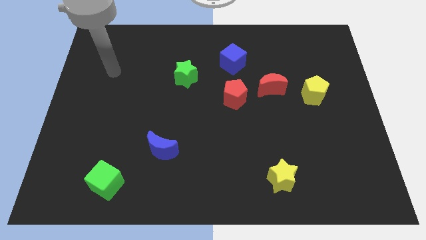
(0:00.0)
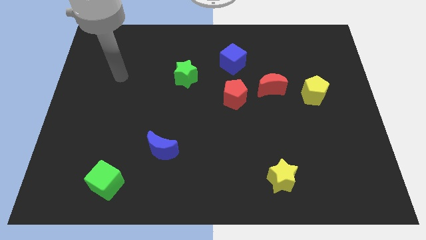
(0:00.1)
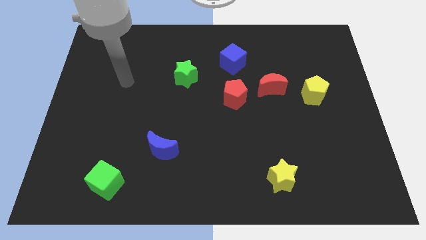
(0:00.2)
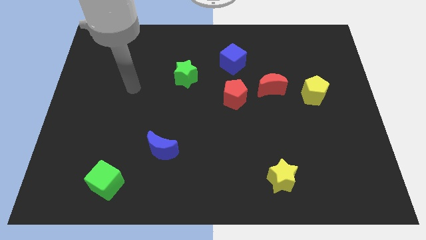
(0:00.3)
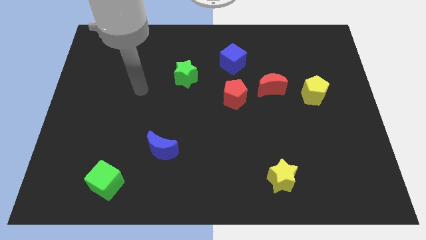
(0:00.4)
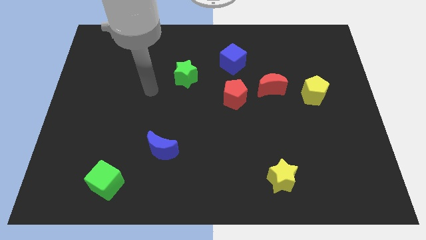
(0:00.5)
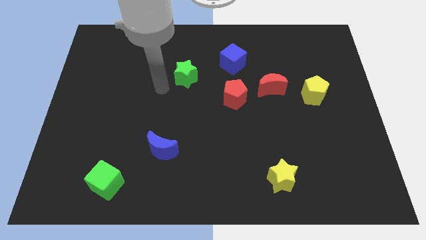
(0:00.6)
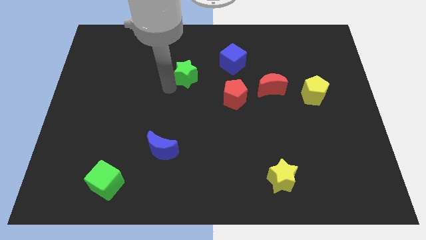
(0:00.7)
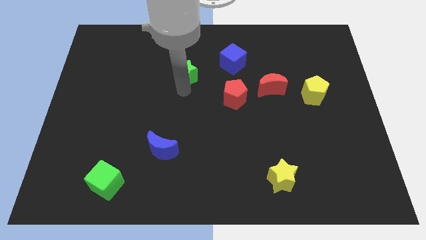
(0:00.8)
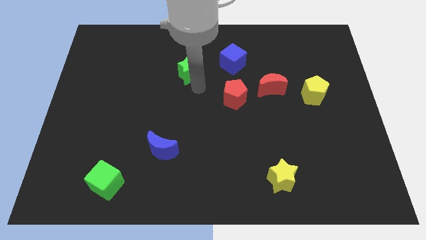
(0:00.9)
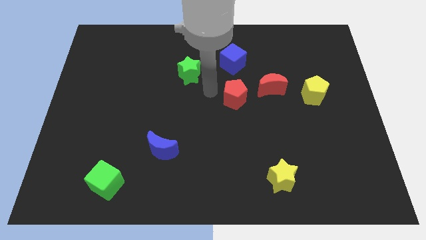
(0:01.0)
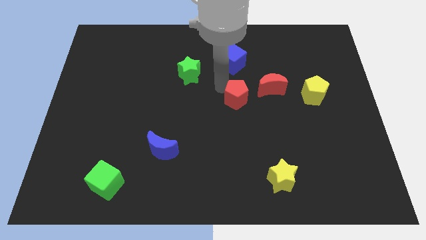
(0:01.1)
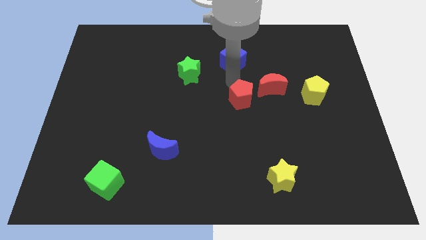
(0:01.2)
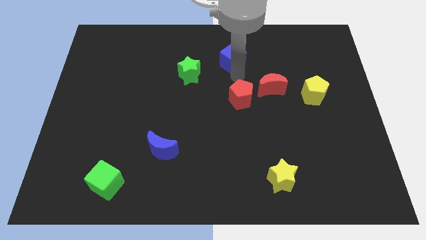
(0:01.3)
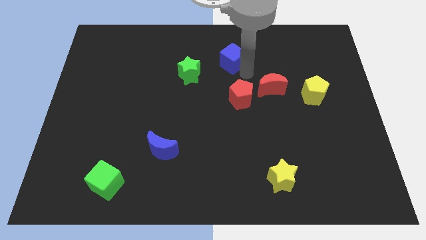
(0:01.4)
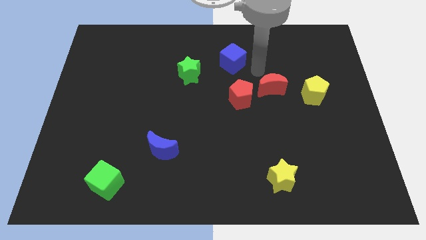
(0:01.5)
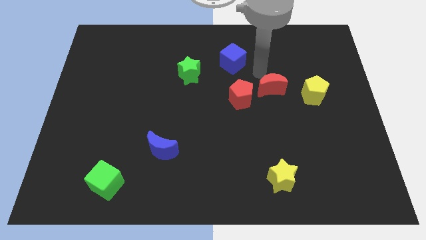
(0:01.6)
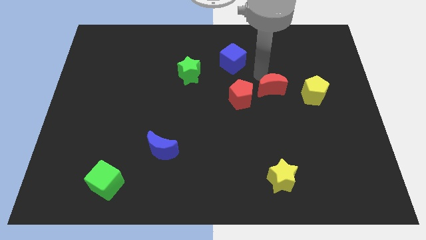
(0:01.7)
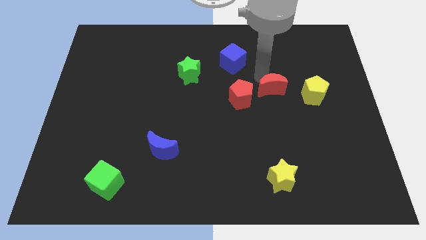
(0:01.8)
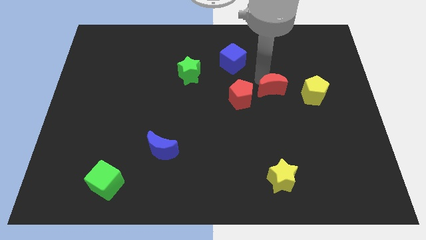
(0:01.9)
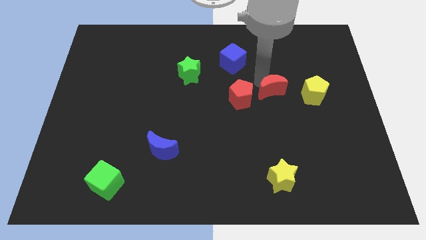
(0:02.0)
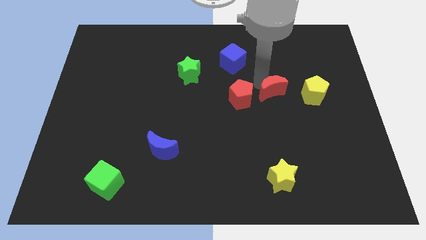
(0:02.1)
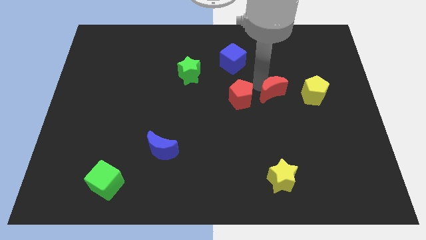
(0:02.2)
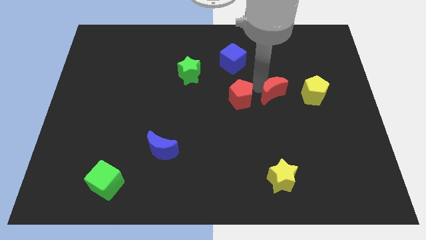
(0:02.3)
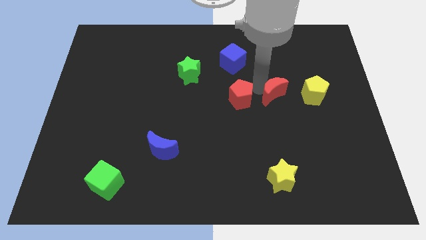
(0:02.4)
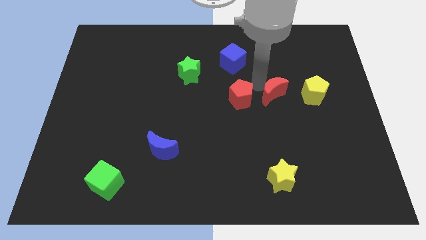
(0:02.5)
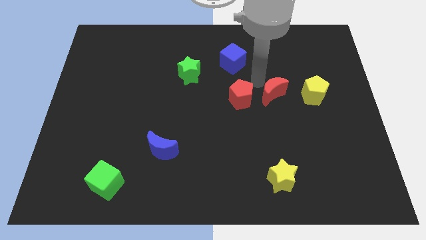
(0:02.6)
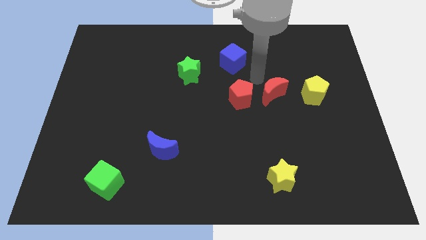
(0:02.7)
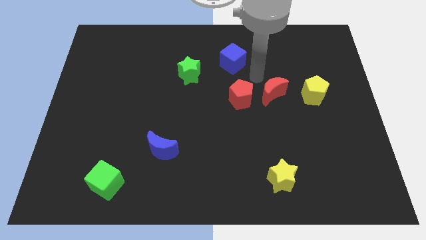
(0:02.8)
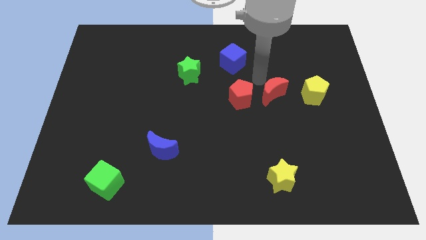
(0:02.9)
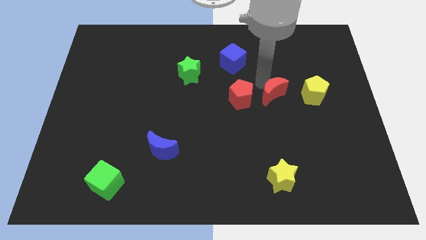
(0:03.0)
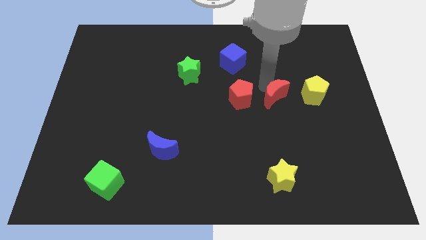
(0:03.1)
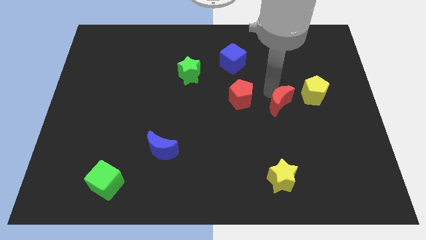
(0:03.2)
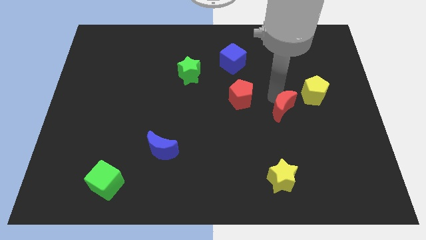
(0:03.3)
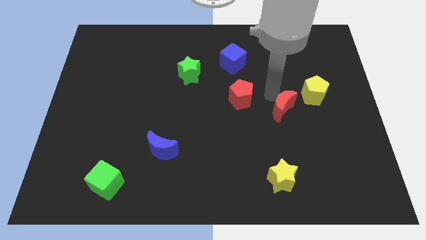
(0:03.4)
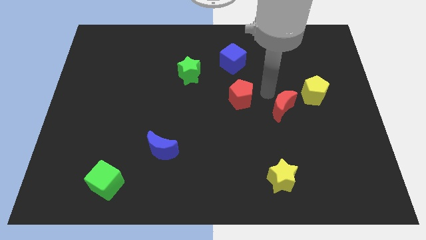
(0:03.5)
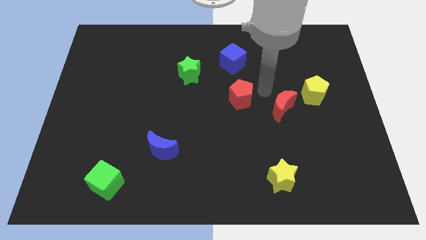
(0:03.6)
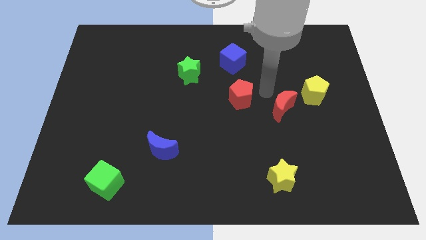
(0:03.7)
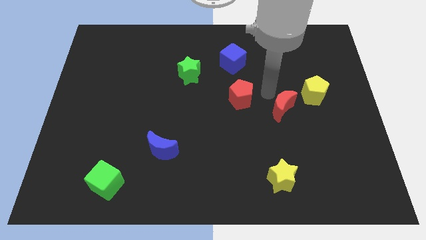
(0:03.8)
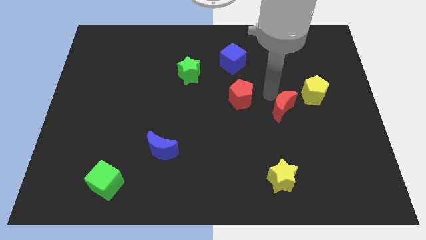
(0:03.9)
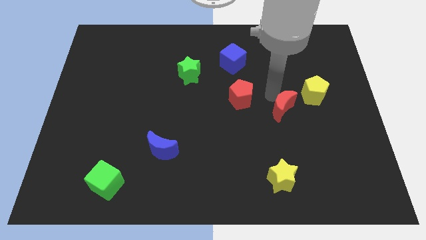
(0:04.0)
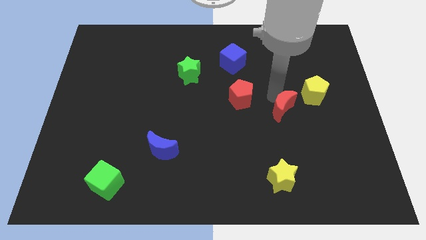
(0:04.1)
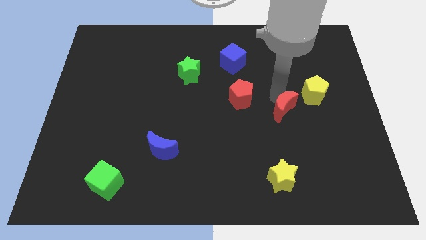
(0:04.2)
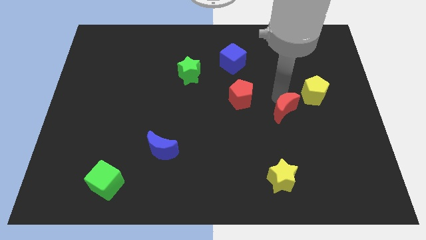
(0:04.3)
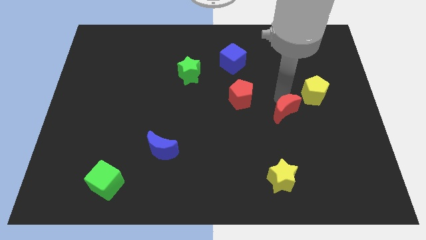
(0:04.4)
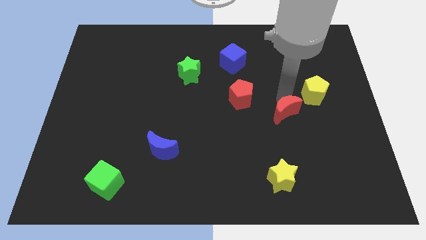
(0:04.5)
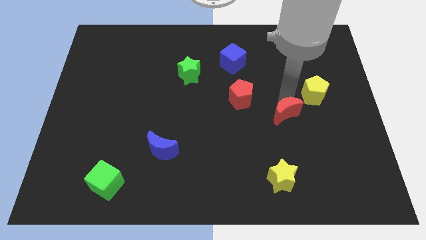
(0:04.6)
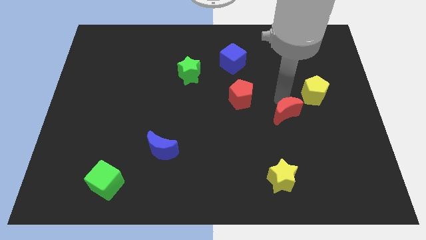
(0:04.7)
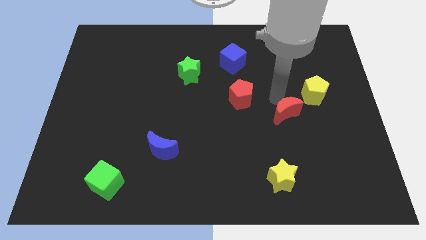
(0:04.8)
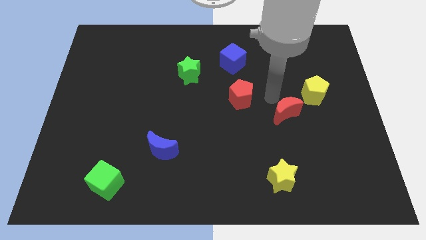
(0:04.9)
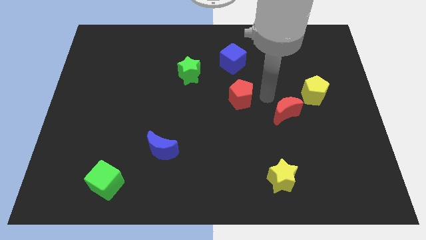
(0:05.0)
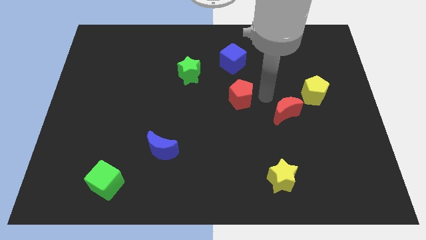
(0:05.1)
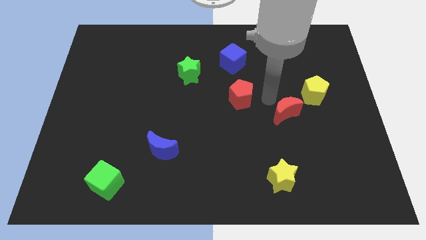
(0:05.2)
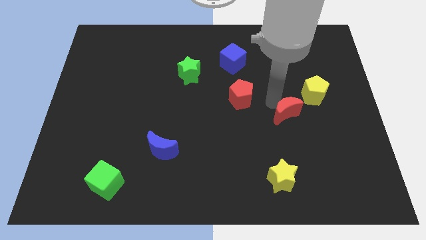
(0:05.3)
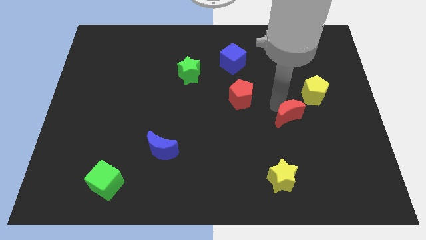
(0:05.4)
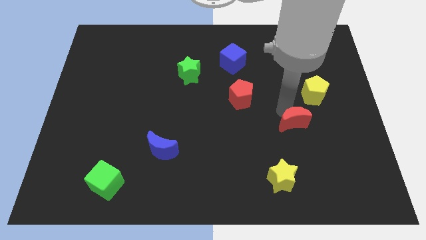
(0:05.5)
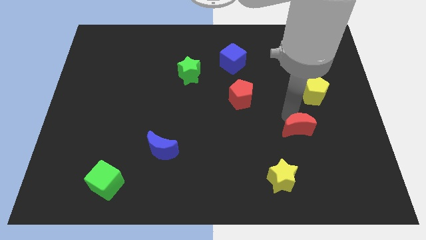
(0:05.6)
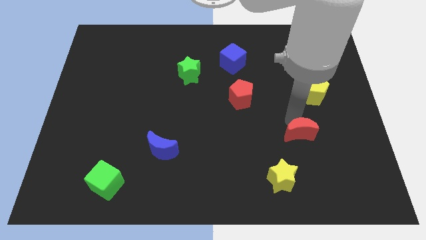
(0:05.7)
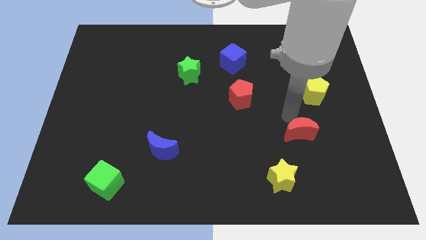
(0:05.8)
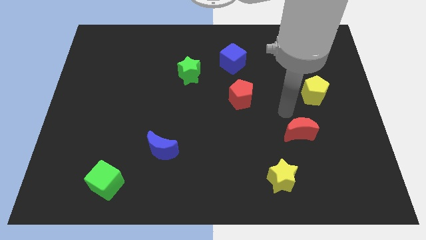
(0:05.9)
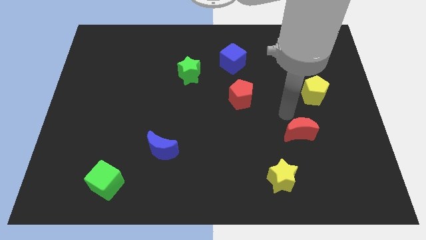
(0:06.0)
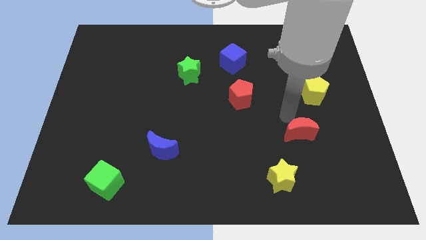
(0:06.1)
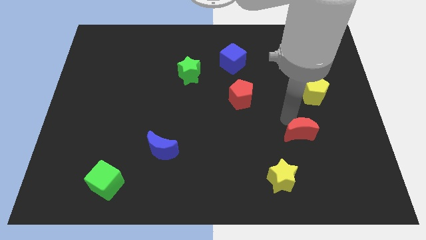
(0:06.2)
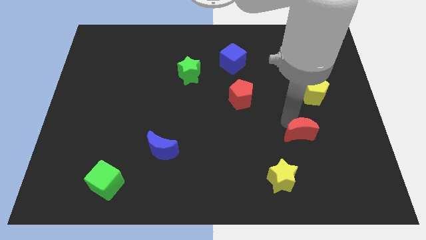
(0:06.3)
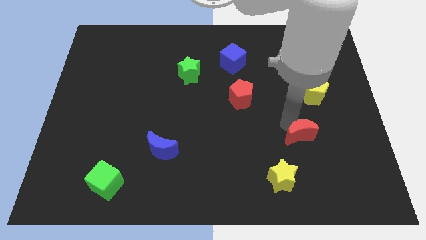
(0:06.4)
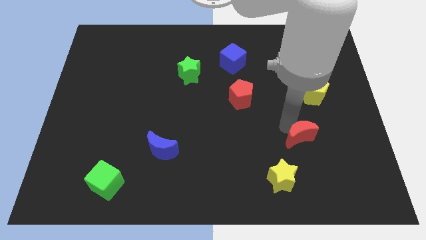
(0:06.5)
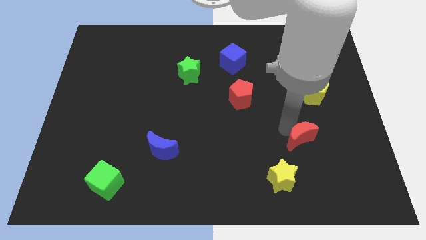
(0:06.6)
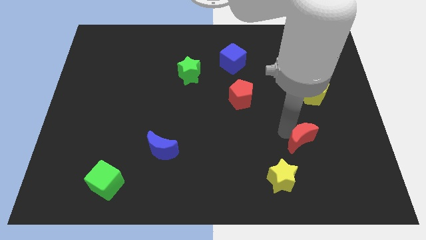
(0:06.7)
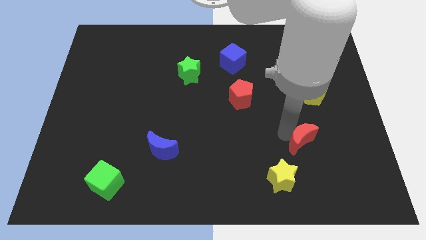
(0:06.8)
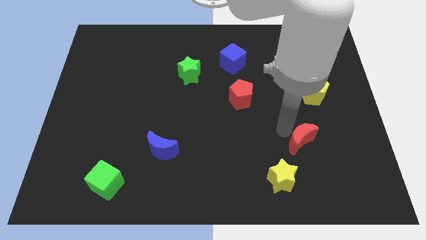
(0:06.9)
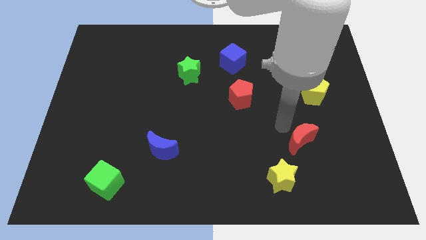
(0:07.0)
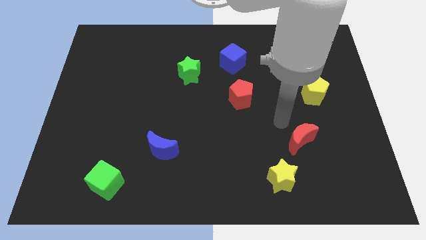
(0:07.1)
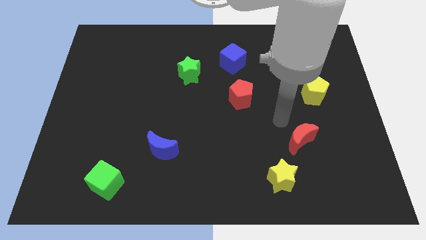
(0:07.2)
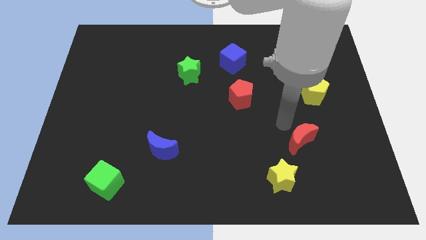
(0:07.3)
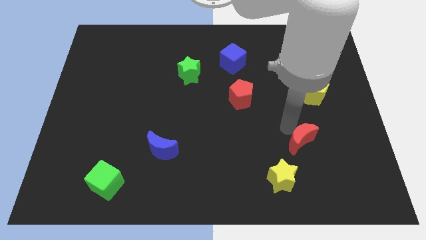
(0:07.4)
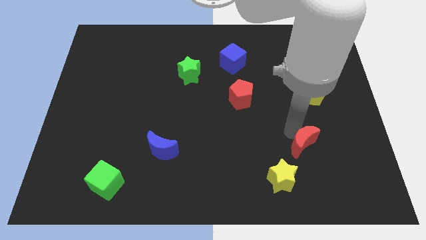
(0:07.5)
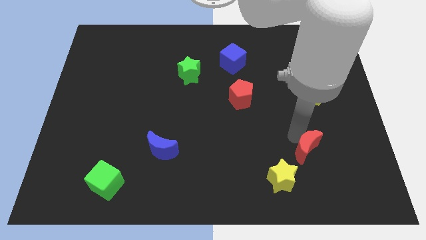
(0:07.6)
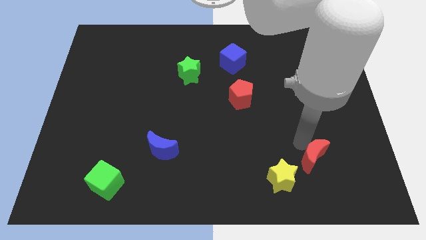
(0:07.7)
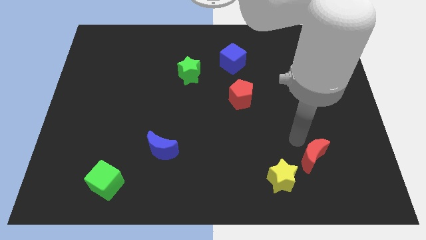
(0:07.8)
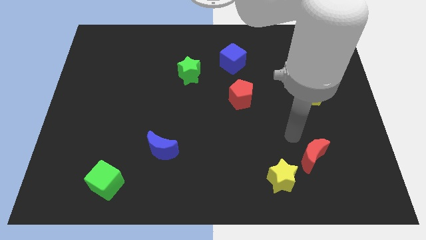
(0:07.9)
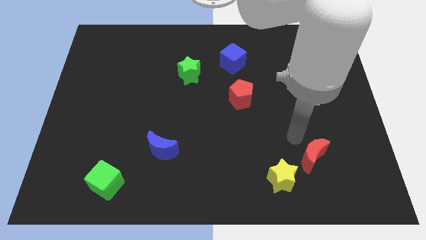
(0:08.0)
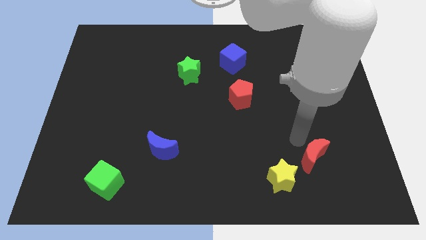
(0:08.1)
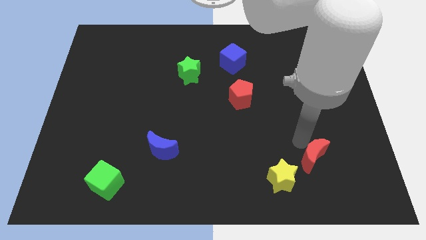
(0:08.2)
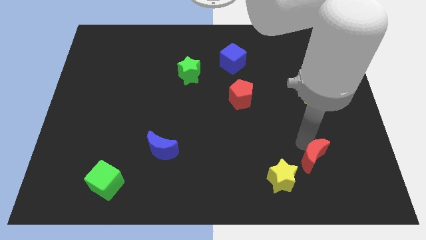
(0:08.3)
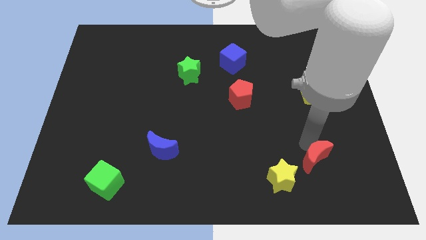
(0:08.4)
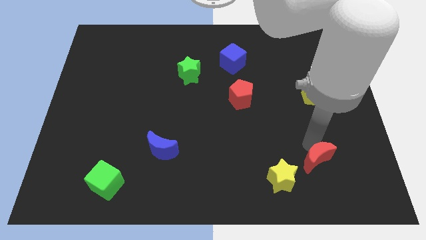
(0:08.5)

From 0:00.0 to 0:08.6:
put the red moon to the right side of the yellow star
